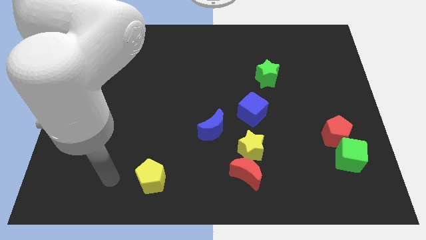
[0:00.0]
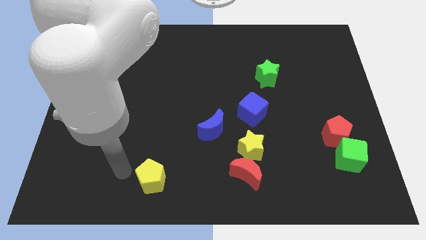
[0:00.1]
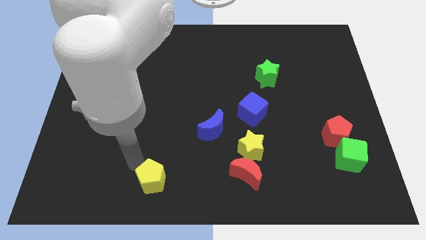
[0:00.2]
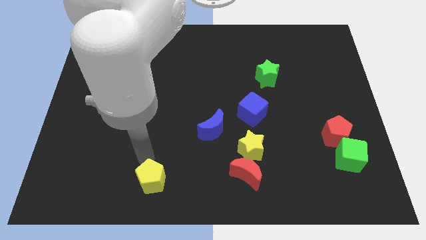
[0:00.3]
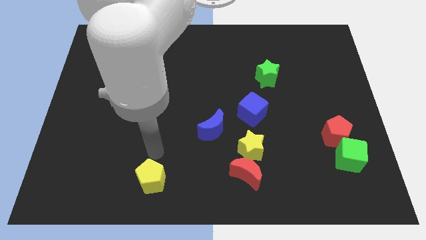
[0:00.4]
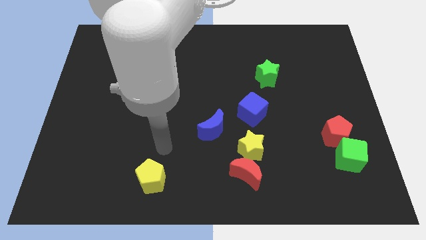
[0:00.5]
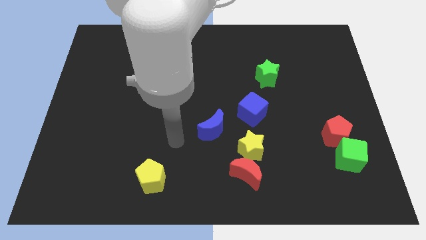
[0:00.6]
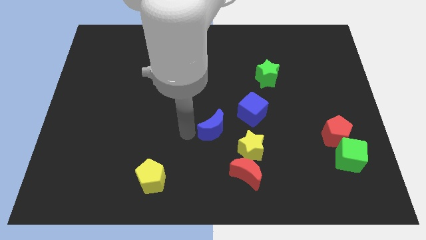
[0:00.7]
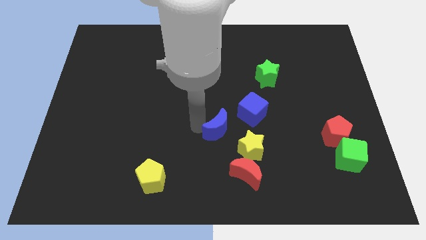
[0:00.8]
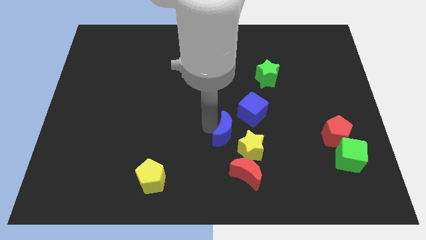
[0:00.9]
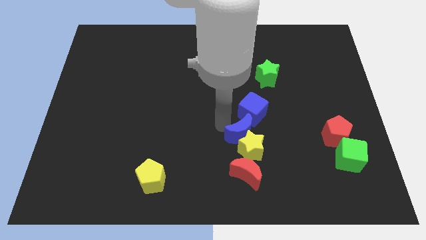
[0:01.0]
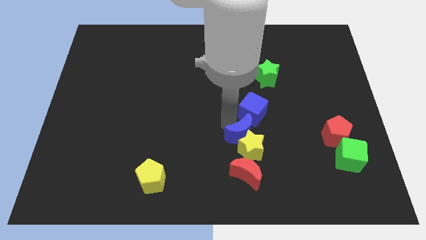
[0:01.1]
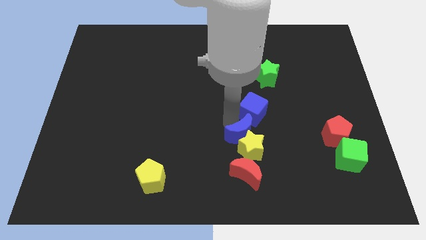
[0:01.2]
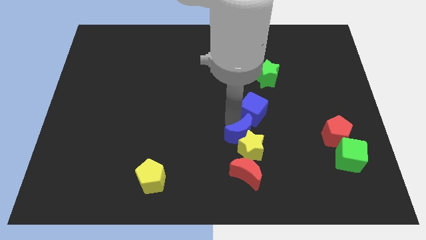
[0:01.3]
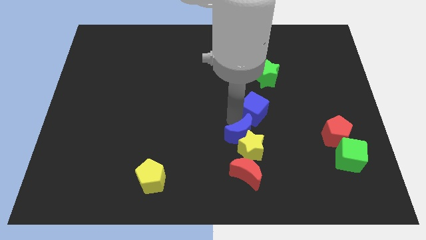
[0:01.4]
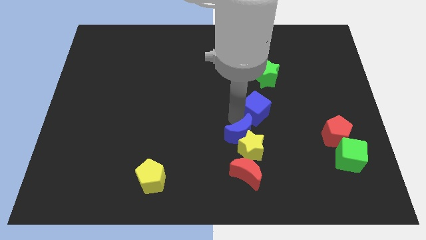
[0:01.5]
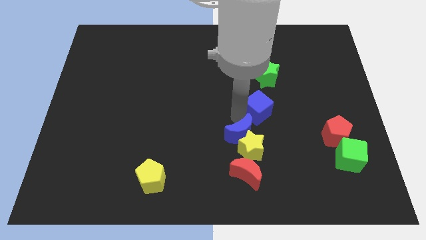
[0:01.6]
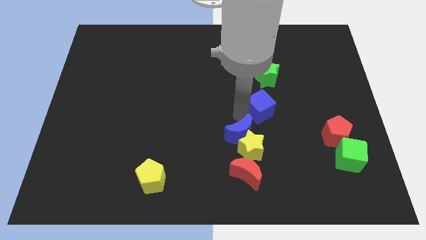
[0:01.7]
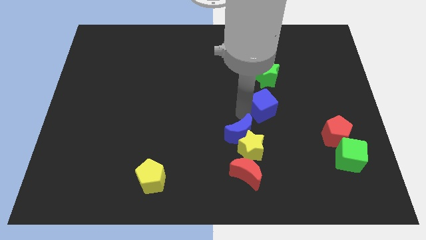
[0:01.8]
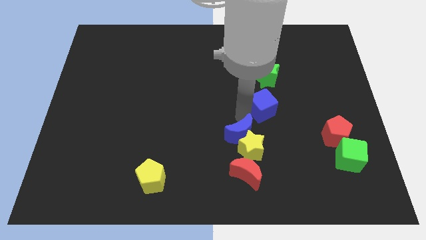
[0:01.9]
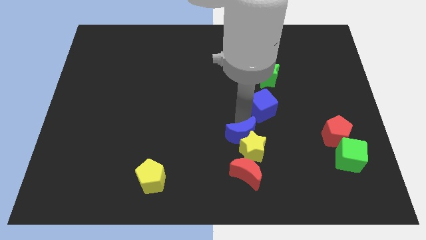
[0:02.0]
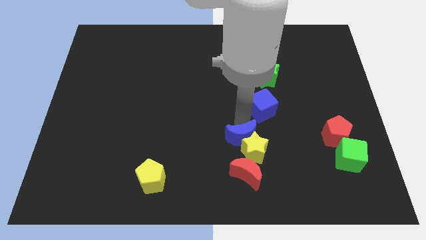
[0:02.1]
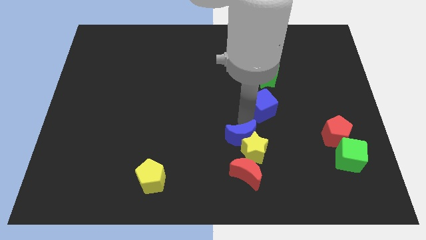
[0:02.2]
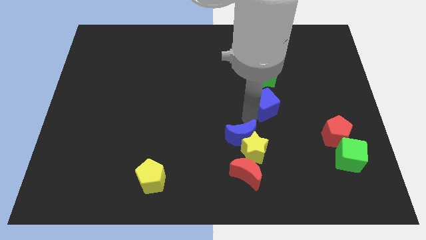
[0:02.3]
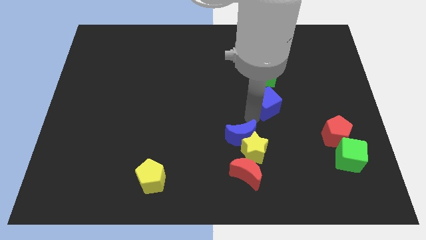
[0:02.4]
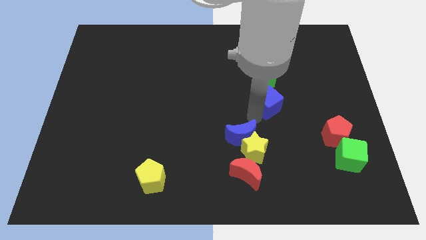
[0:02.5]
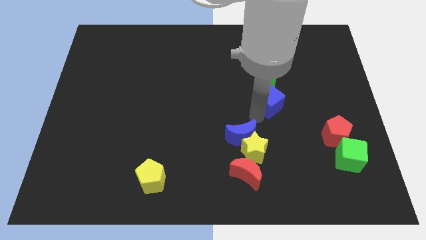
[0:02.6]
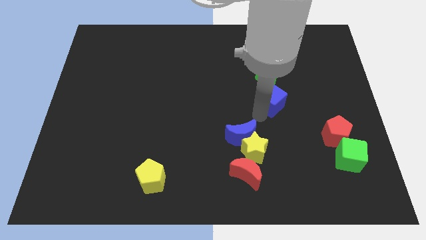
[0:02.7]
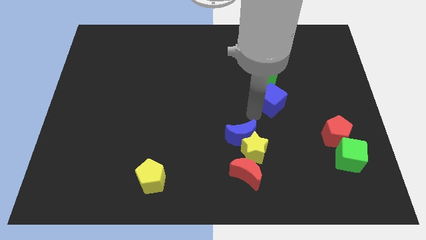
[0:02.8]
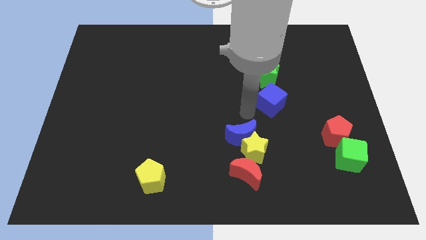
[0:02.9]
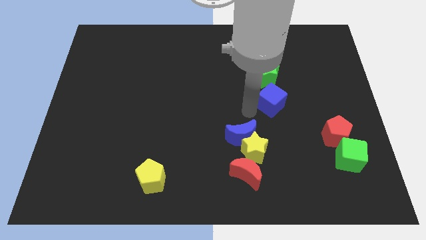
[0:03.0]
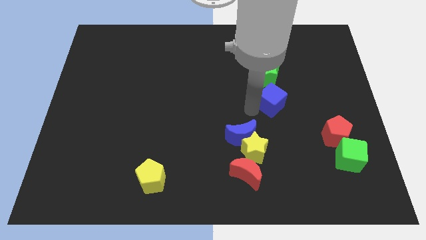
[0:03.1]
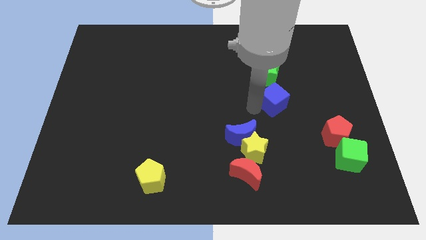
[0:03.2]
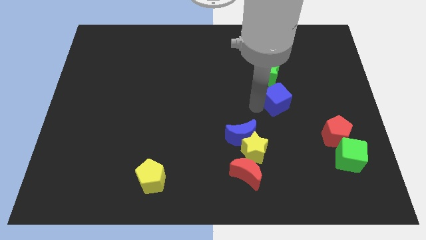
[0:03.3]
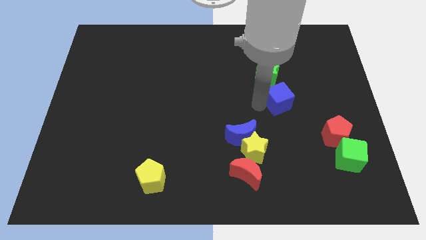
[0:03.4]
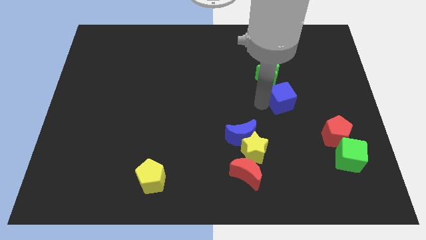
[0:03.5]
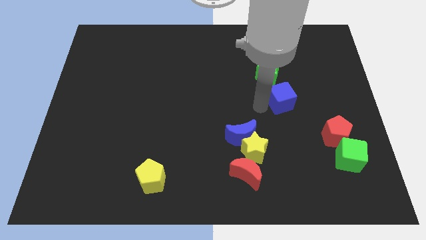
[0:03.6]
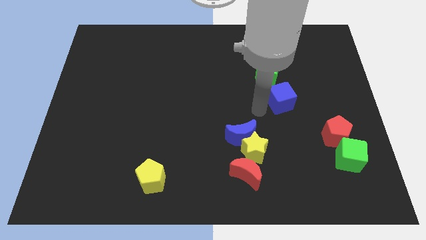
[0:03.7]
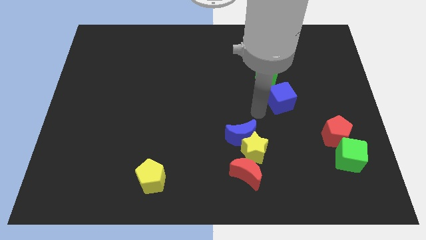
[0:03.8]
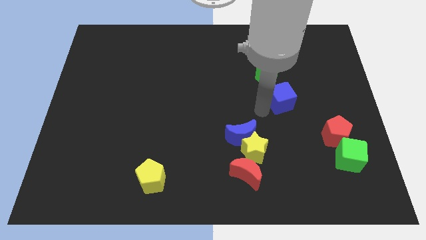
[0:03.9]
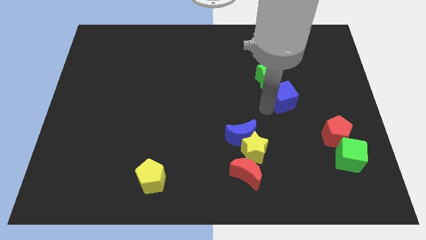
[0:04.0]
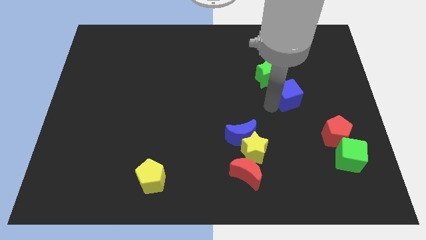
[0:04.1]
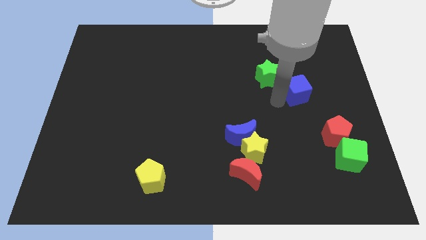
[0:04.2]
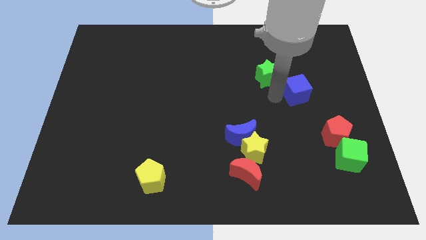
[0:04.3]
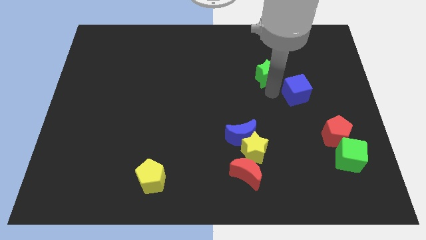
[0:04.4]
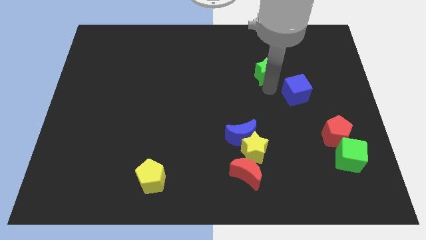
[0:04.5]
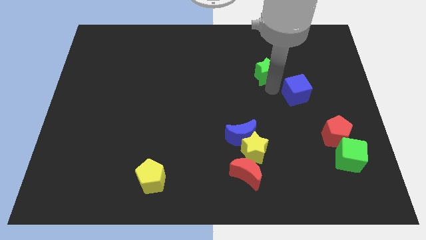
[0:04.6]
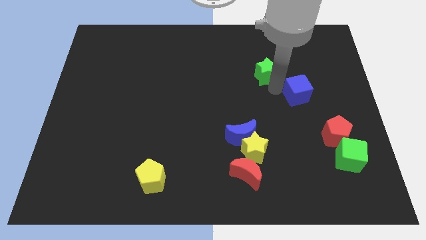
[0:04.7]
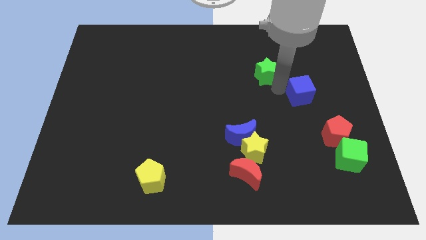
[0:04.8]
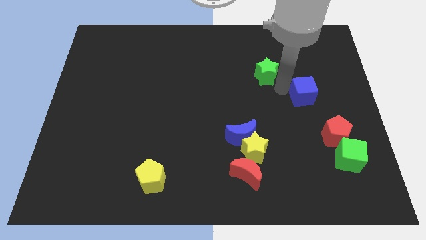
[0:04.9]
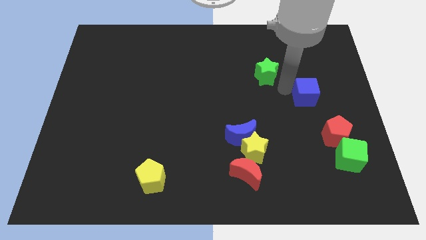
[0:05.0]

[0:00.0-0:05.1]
put the blue cube above the red pentagon

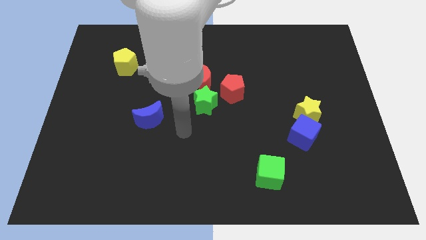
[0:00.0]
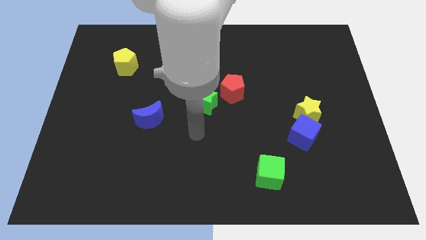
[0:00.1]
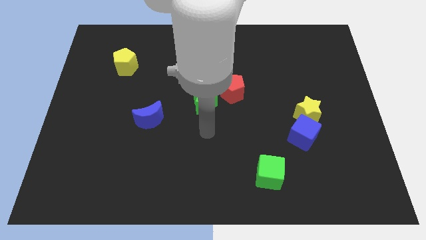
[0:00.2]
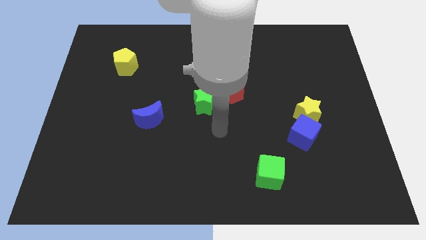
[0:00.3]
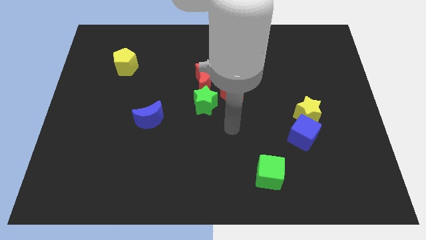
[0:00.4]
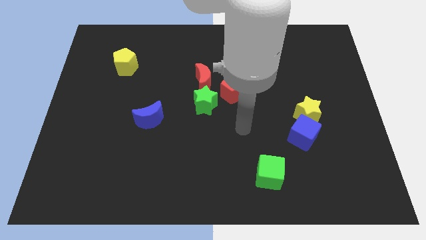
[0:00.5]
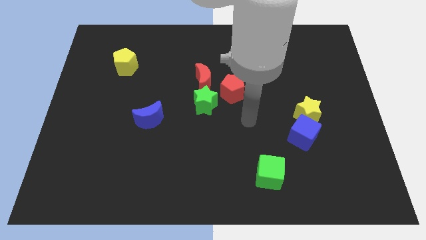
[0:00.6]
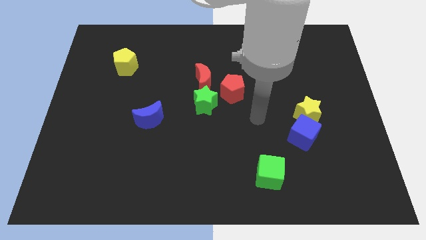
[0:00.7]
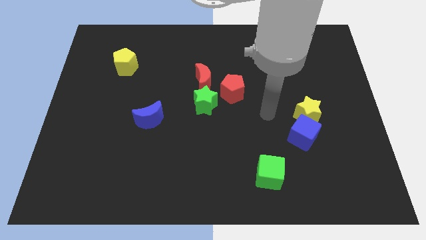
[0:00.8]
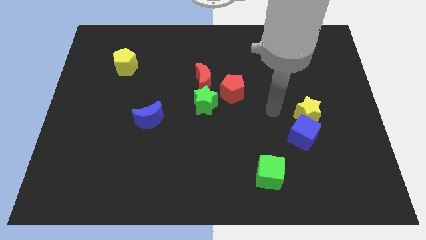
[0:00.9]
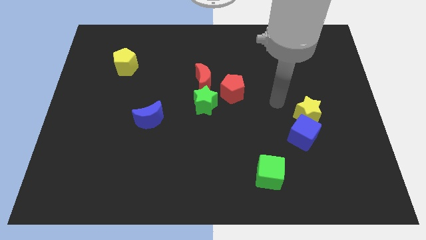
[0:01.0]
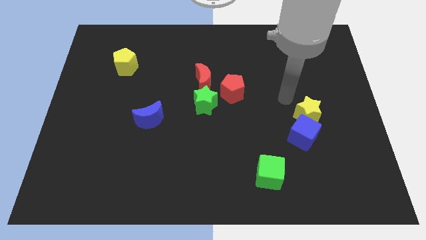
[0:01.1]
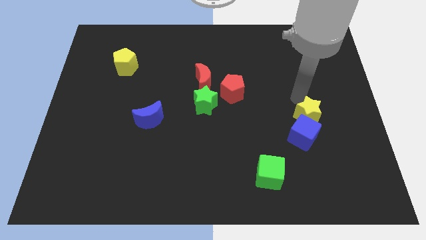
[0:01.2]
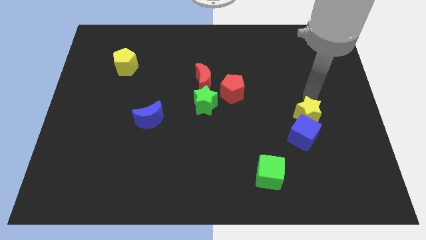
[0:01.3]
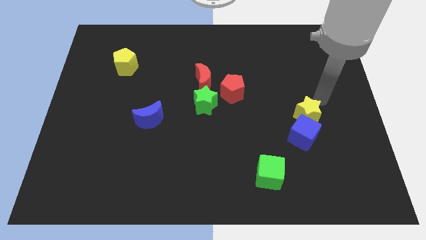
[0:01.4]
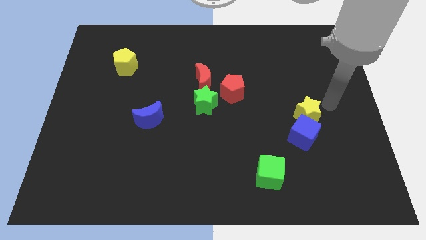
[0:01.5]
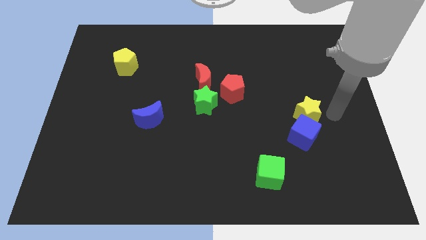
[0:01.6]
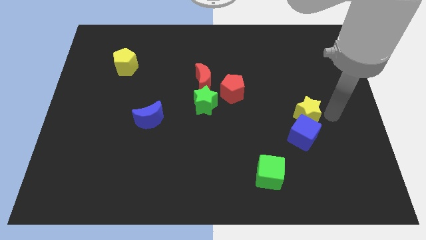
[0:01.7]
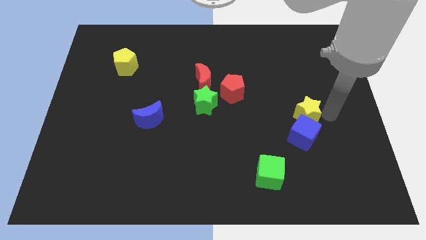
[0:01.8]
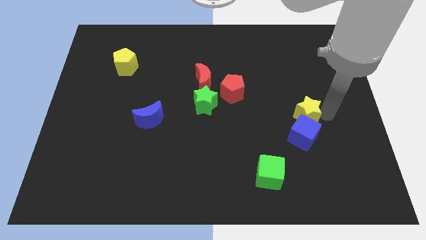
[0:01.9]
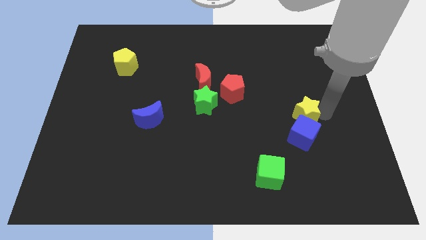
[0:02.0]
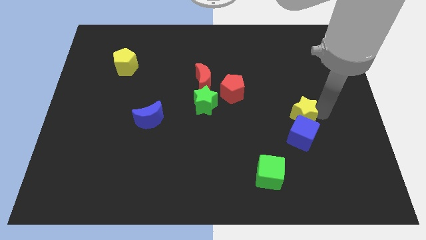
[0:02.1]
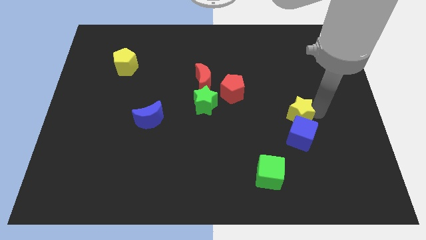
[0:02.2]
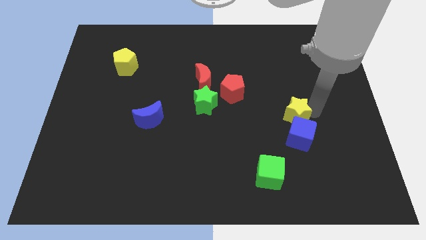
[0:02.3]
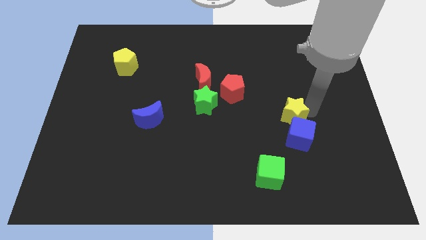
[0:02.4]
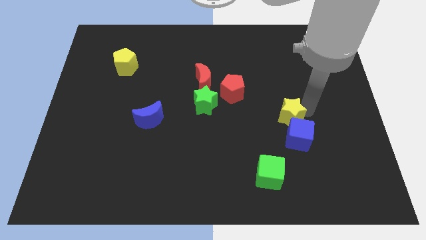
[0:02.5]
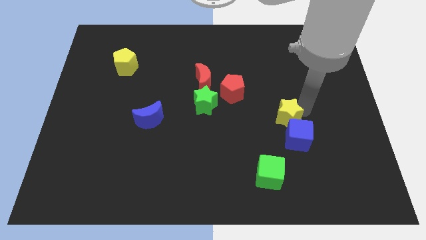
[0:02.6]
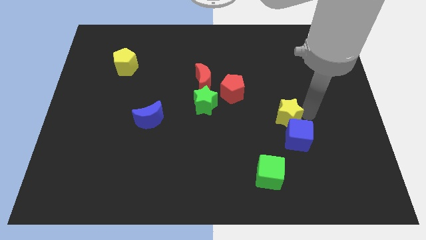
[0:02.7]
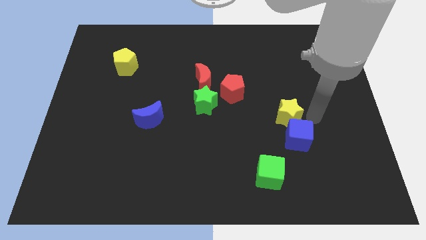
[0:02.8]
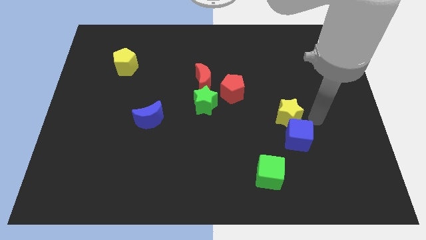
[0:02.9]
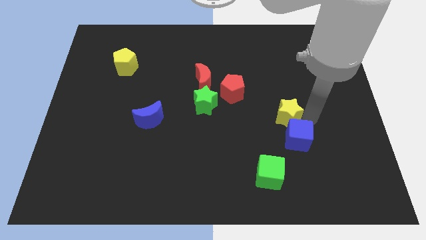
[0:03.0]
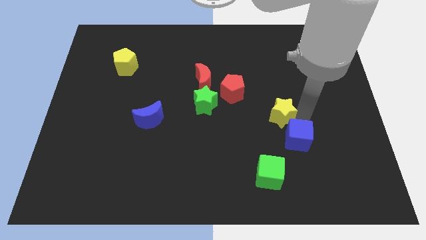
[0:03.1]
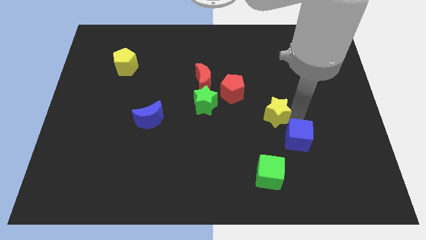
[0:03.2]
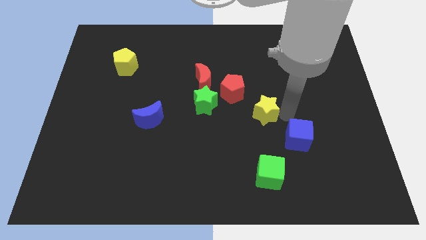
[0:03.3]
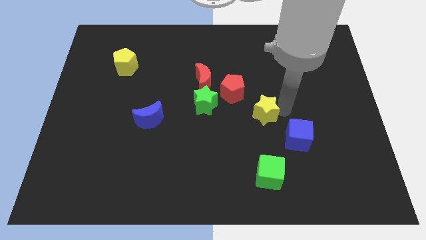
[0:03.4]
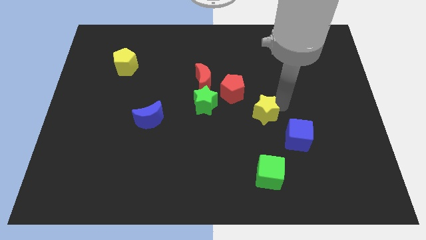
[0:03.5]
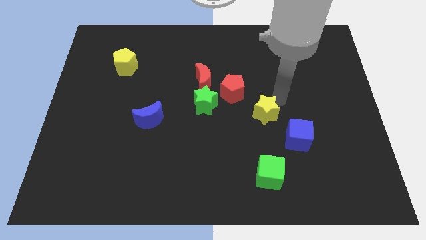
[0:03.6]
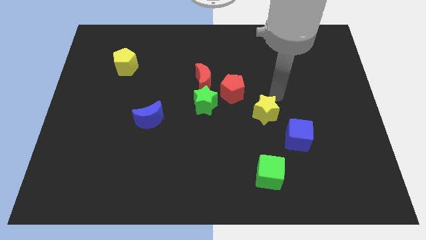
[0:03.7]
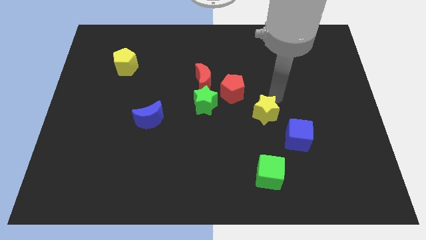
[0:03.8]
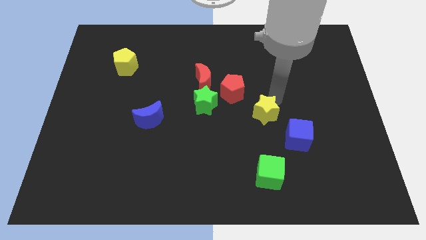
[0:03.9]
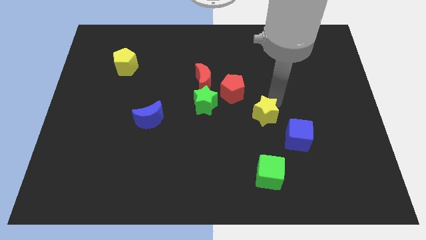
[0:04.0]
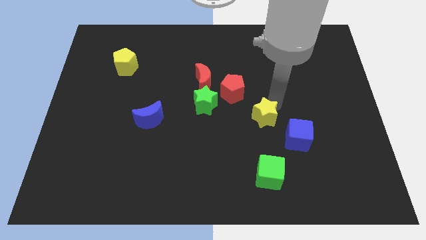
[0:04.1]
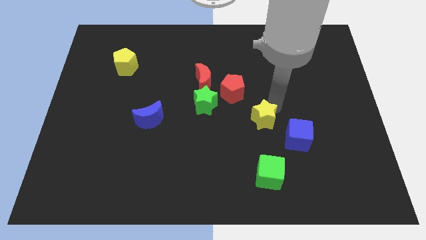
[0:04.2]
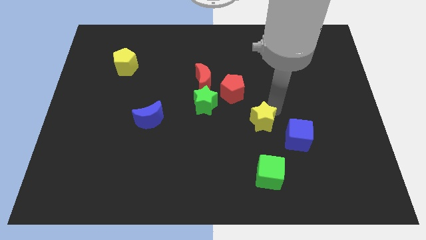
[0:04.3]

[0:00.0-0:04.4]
put the yellow star to the left of the blue cube
